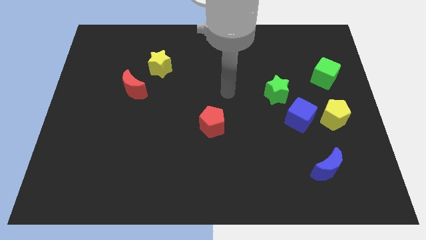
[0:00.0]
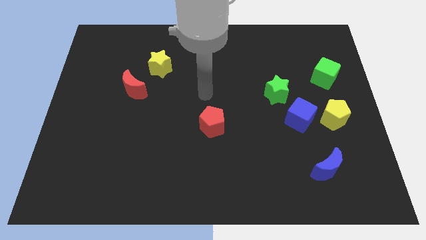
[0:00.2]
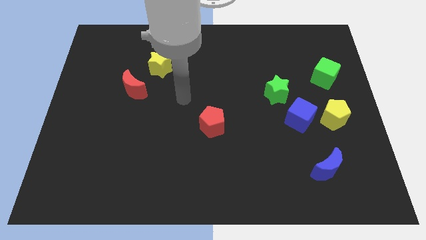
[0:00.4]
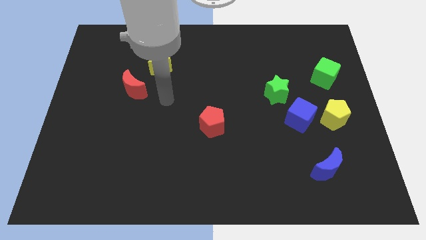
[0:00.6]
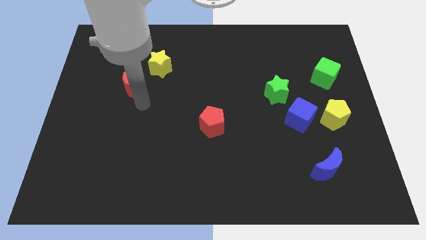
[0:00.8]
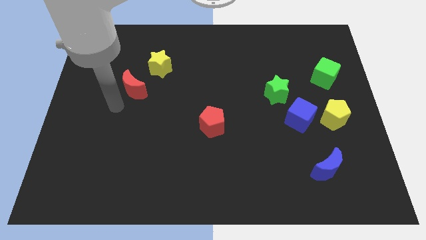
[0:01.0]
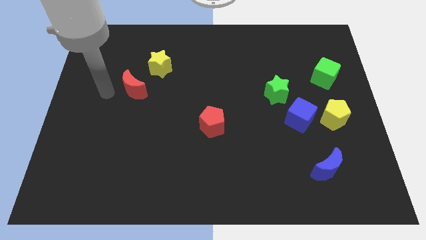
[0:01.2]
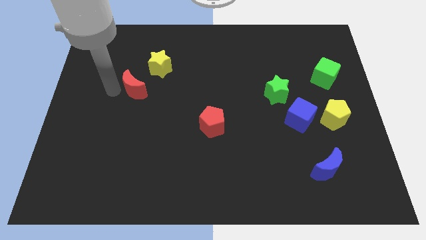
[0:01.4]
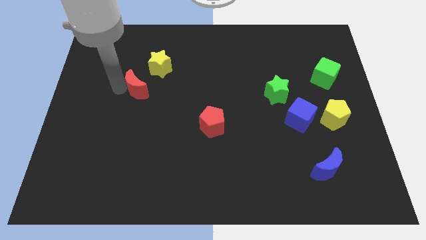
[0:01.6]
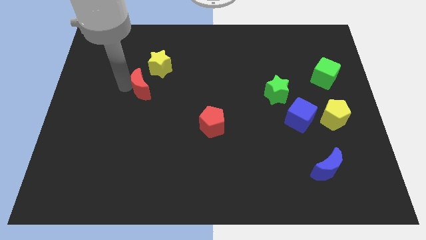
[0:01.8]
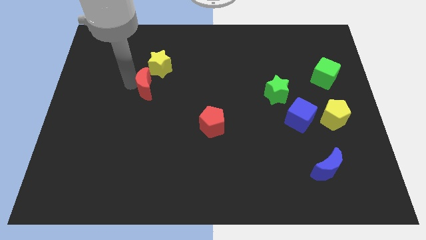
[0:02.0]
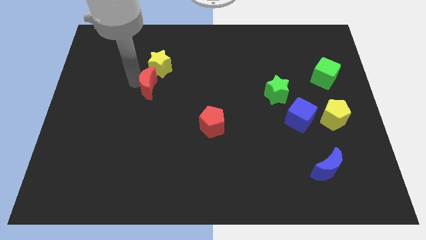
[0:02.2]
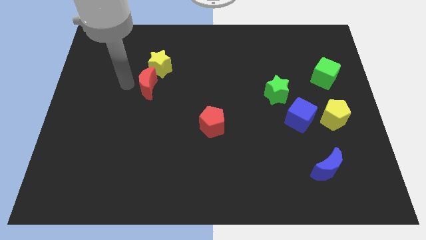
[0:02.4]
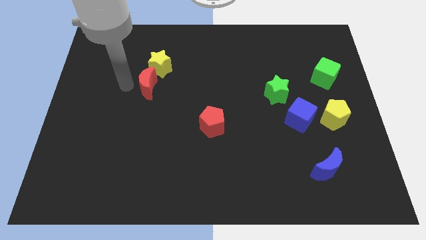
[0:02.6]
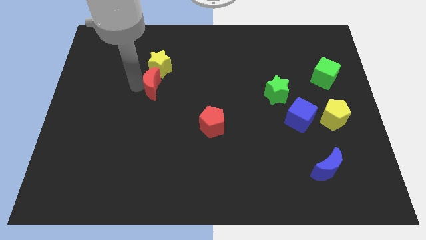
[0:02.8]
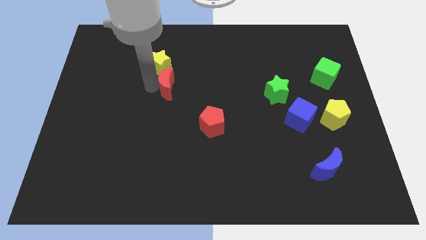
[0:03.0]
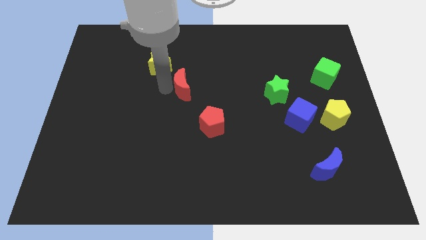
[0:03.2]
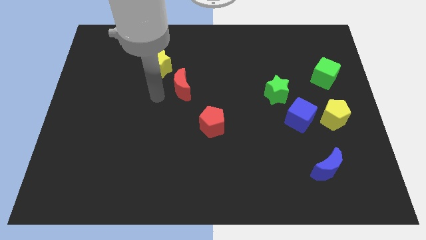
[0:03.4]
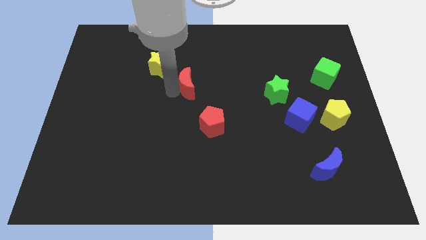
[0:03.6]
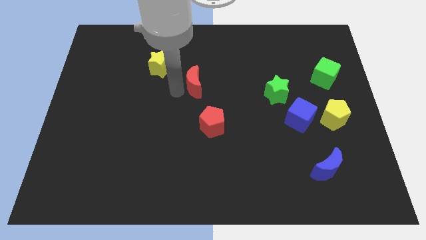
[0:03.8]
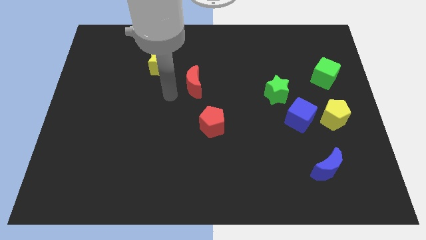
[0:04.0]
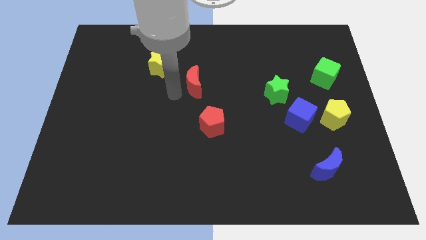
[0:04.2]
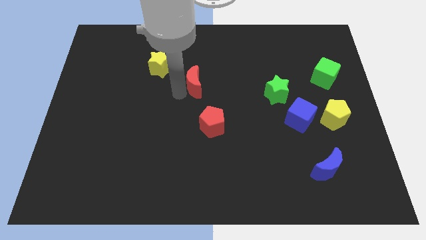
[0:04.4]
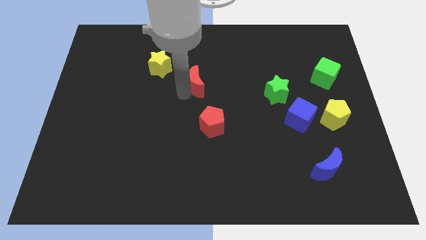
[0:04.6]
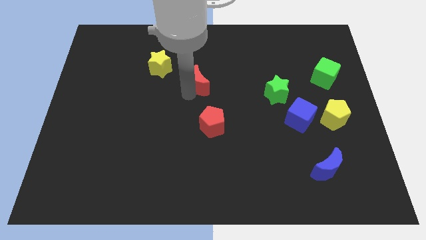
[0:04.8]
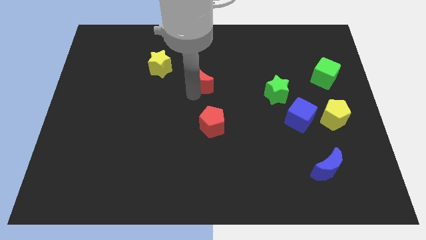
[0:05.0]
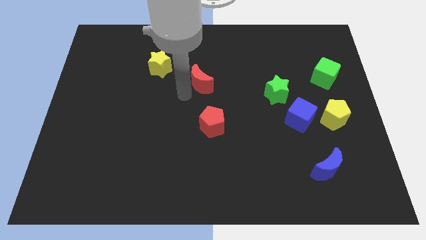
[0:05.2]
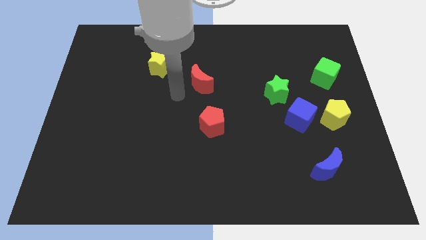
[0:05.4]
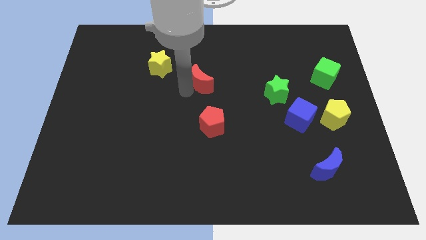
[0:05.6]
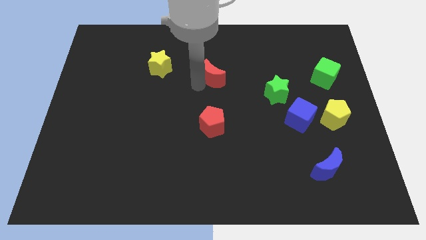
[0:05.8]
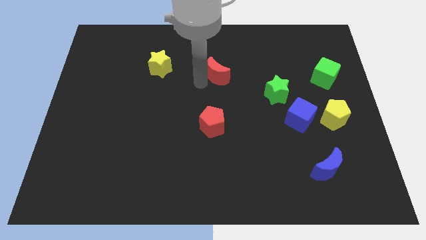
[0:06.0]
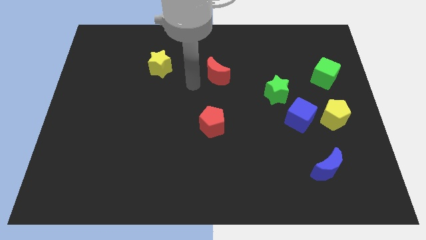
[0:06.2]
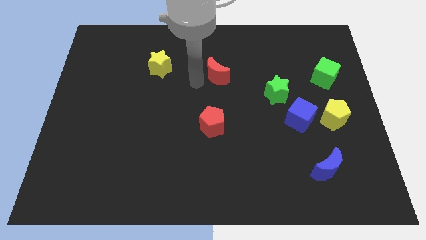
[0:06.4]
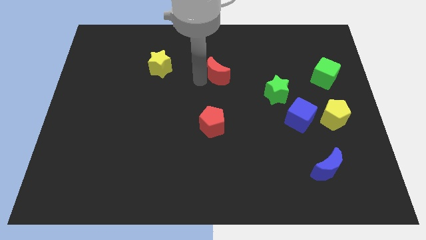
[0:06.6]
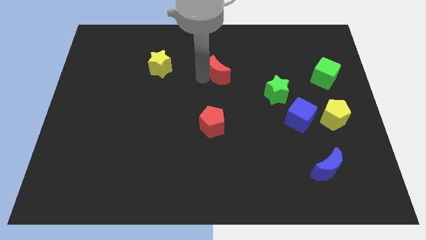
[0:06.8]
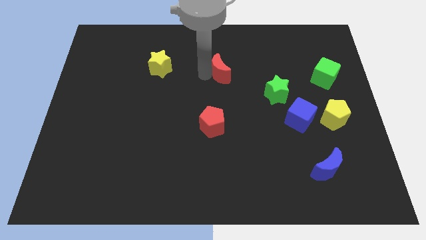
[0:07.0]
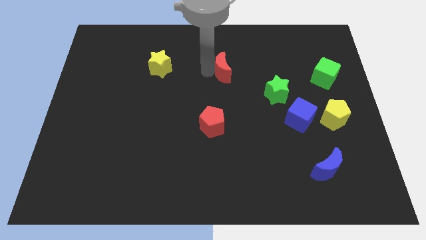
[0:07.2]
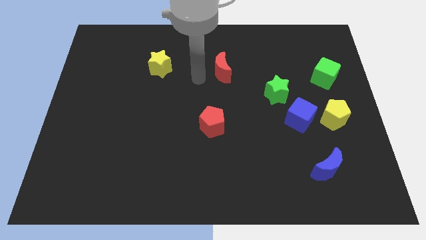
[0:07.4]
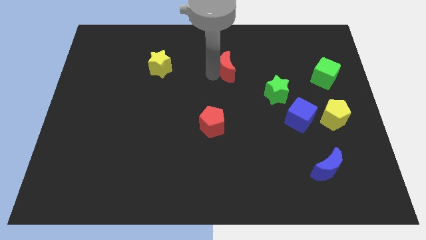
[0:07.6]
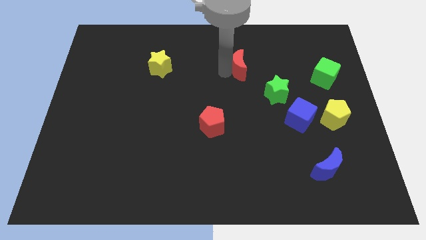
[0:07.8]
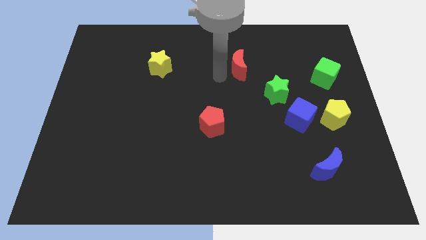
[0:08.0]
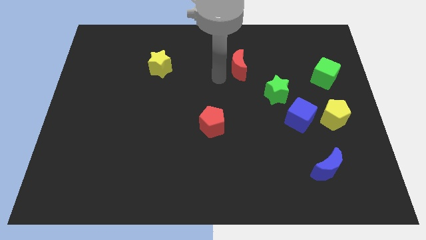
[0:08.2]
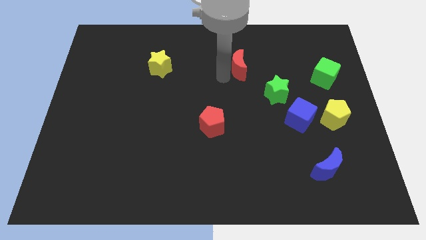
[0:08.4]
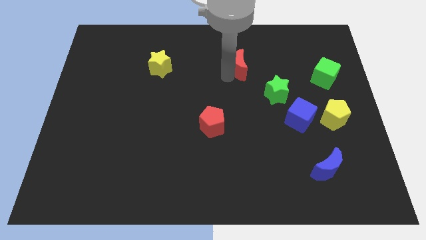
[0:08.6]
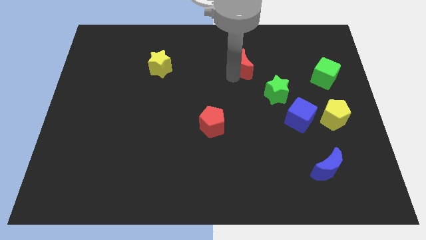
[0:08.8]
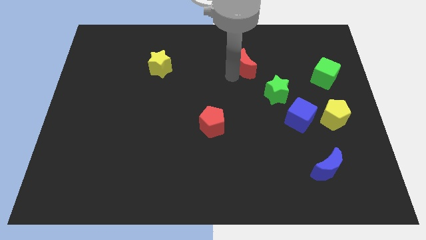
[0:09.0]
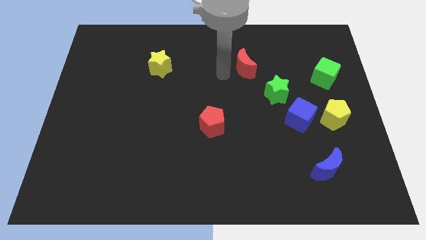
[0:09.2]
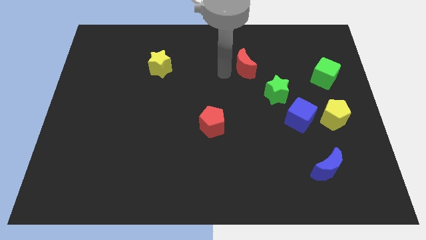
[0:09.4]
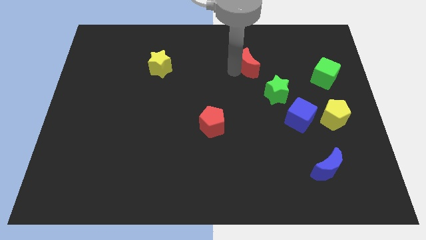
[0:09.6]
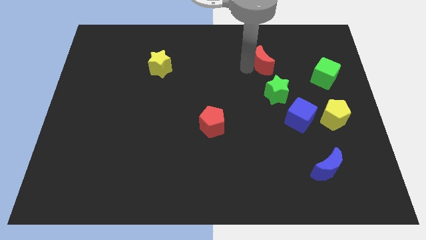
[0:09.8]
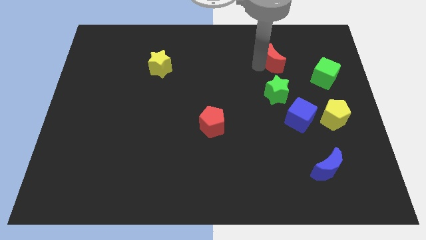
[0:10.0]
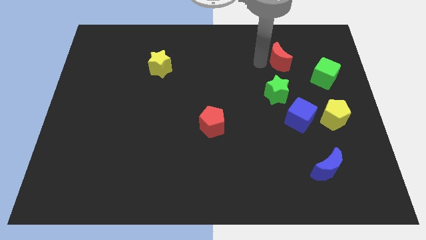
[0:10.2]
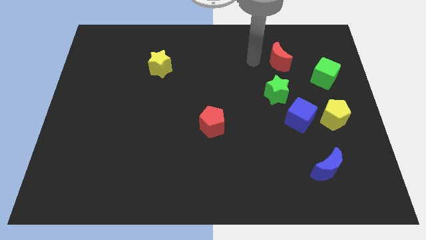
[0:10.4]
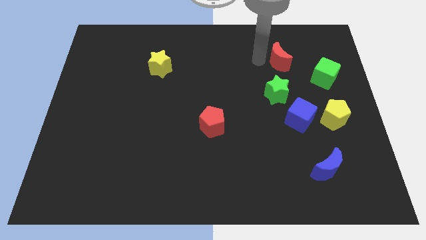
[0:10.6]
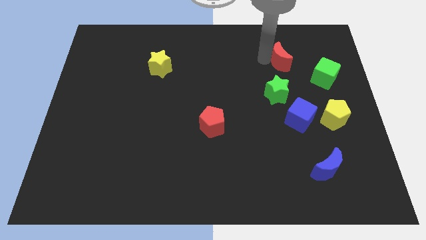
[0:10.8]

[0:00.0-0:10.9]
slide the red moon to the top left side of the green cube

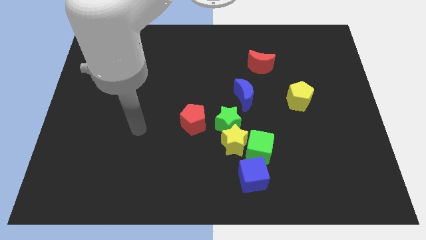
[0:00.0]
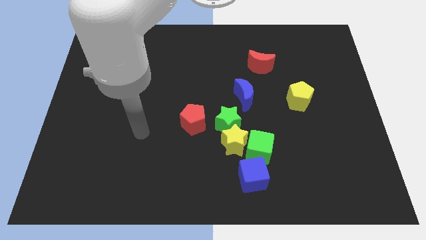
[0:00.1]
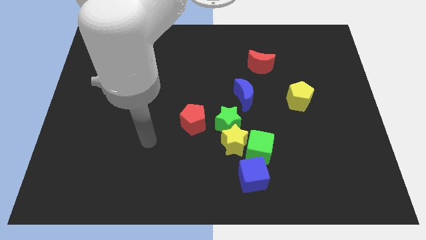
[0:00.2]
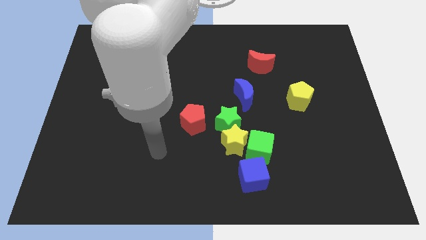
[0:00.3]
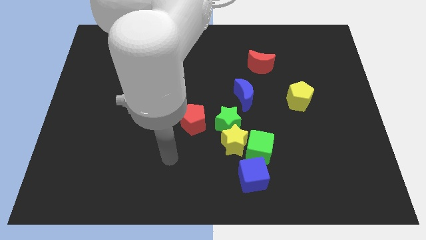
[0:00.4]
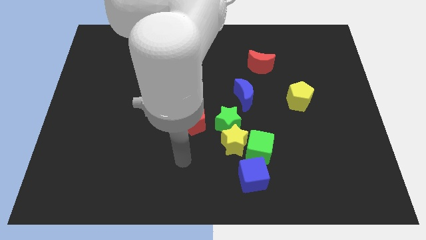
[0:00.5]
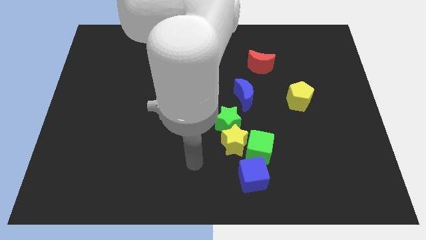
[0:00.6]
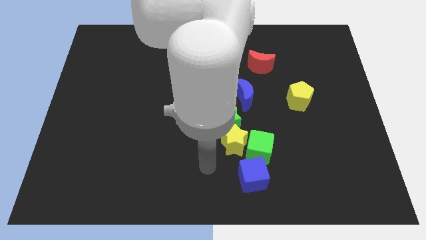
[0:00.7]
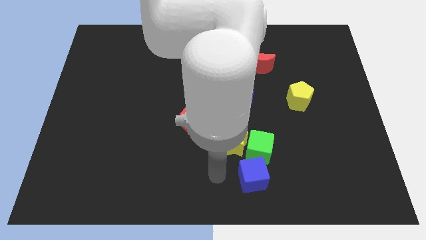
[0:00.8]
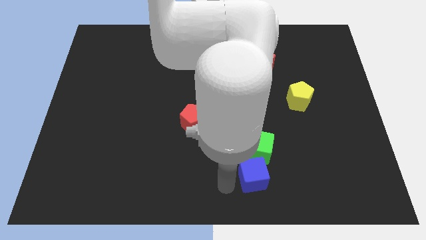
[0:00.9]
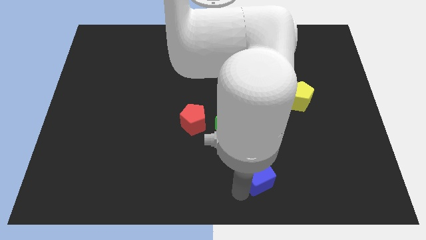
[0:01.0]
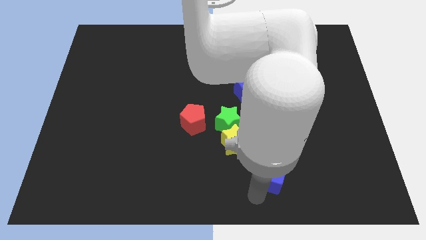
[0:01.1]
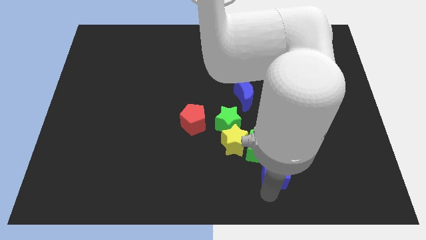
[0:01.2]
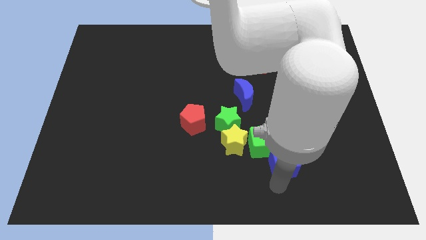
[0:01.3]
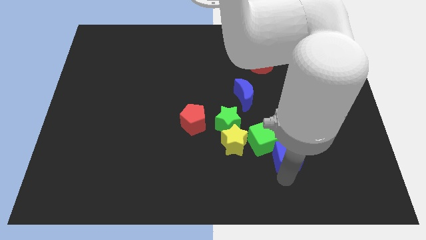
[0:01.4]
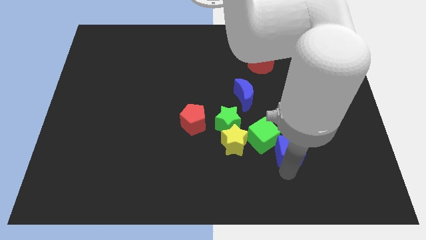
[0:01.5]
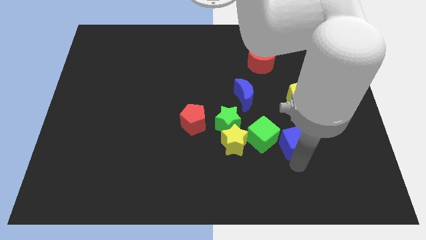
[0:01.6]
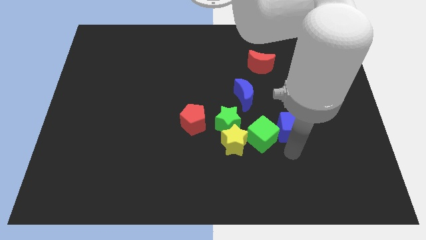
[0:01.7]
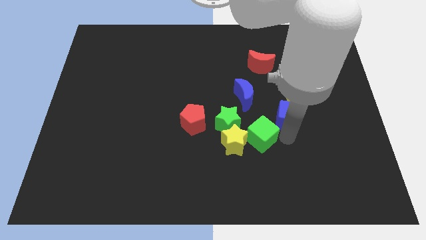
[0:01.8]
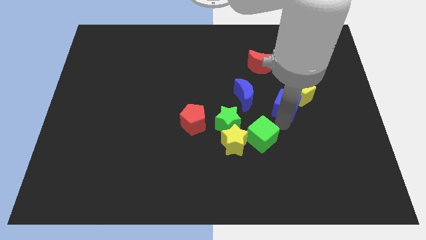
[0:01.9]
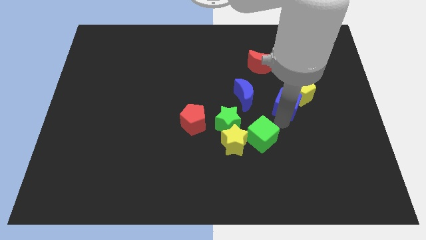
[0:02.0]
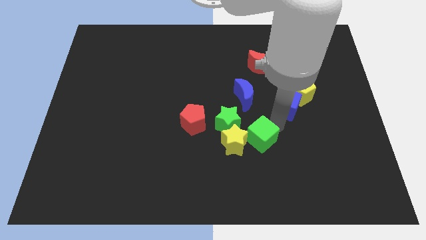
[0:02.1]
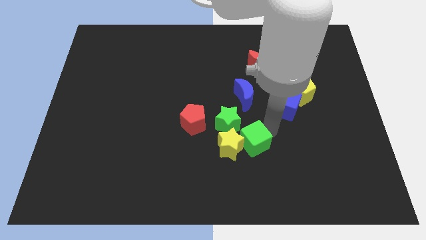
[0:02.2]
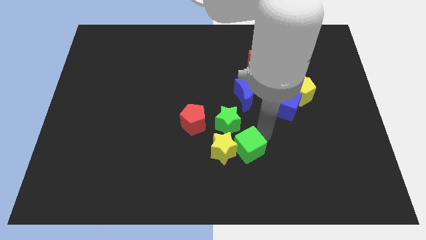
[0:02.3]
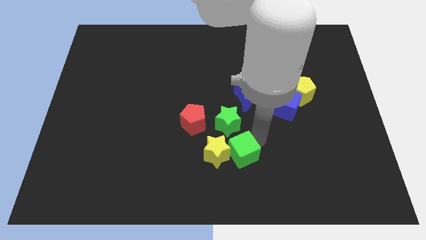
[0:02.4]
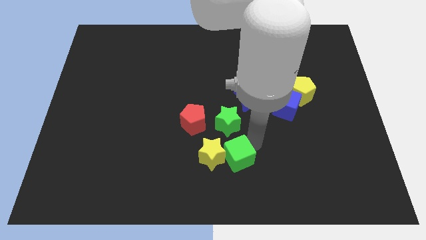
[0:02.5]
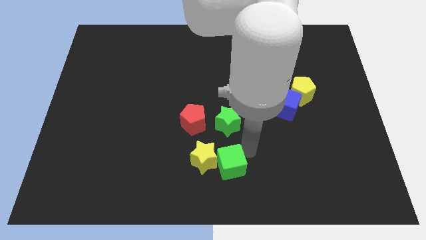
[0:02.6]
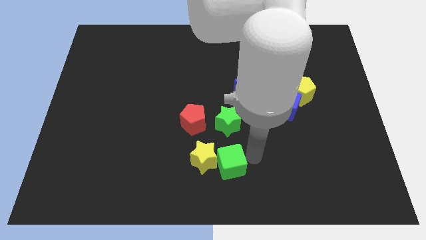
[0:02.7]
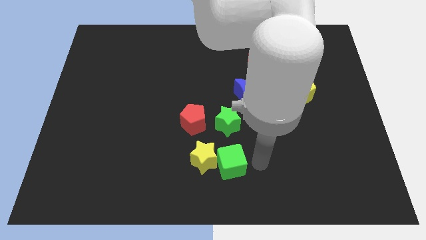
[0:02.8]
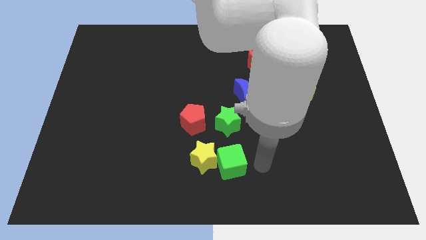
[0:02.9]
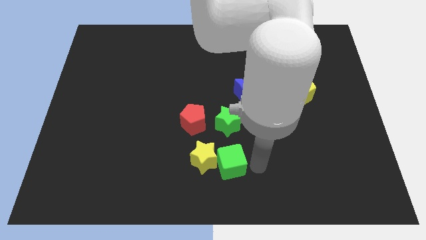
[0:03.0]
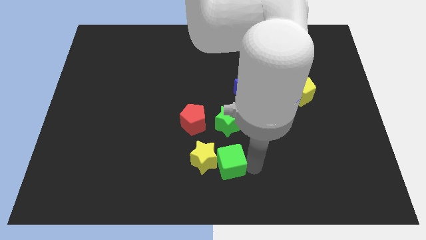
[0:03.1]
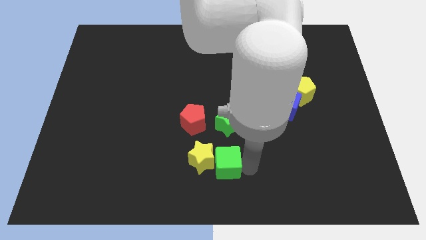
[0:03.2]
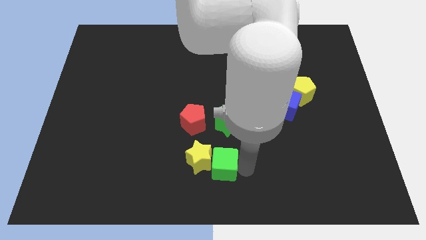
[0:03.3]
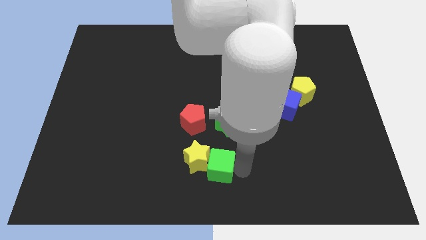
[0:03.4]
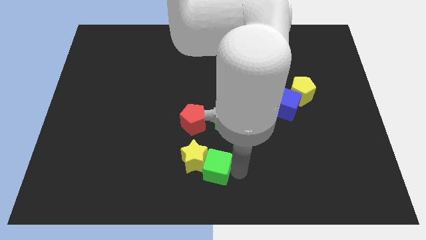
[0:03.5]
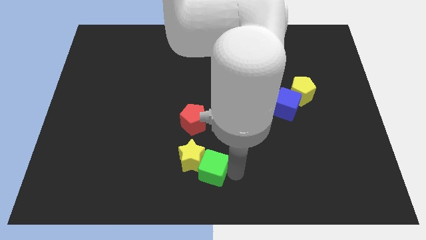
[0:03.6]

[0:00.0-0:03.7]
put the green cube to the bottom of the red pentagon
